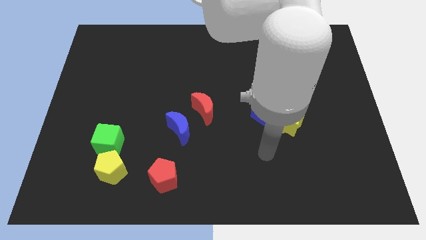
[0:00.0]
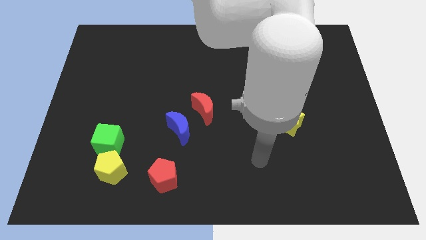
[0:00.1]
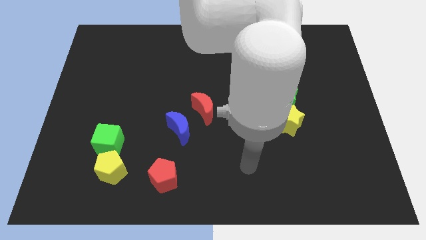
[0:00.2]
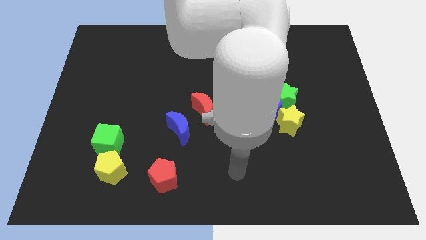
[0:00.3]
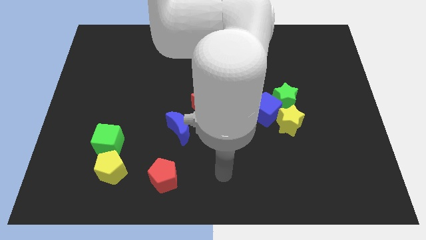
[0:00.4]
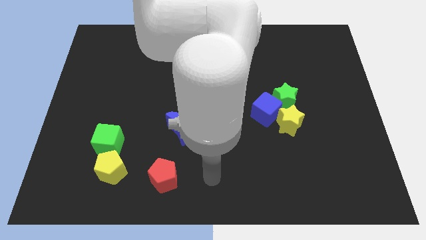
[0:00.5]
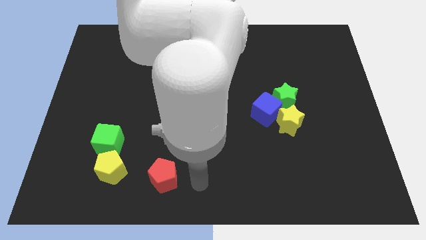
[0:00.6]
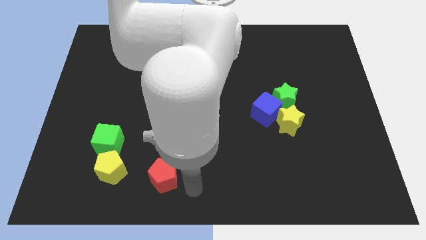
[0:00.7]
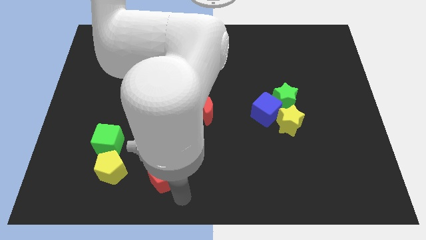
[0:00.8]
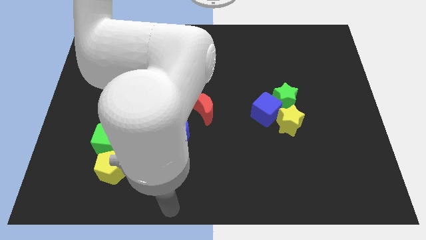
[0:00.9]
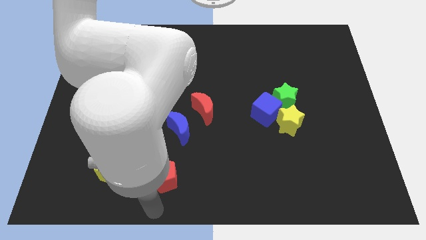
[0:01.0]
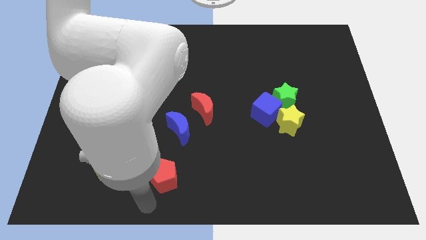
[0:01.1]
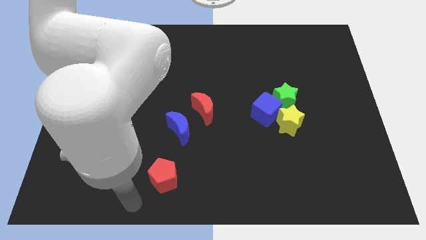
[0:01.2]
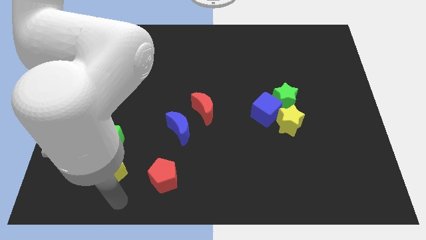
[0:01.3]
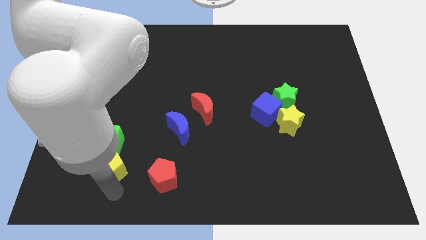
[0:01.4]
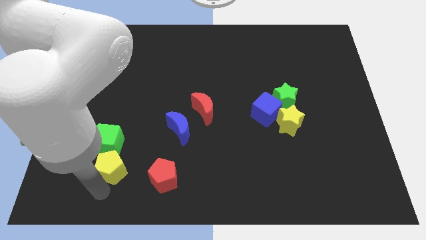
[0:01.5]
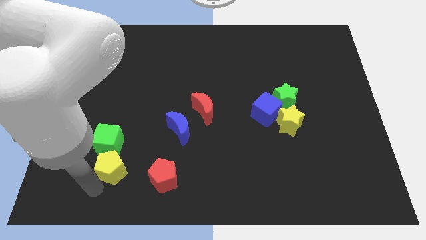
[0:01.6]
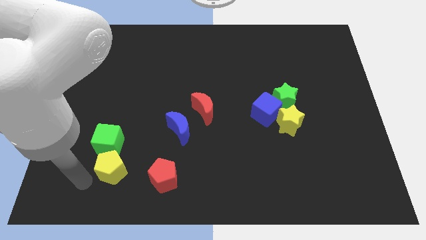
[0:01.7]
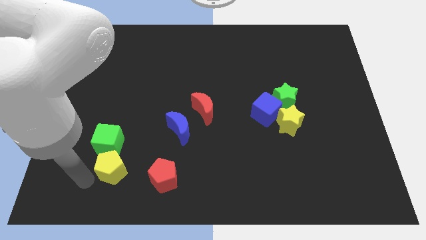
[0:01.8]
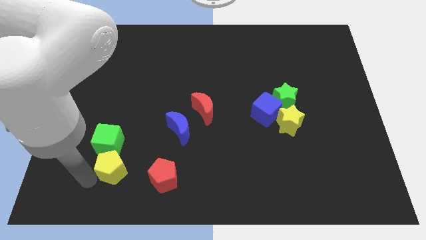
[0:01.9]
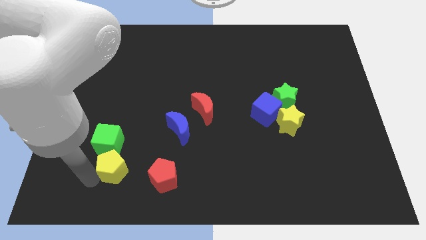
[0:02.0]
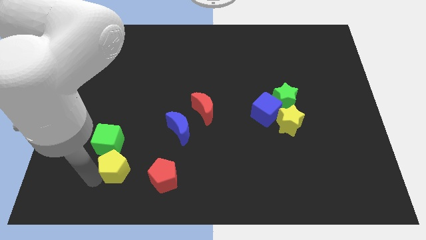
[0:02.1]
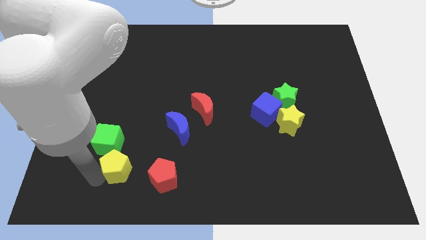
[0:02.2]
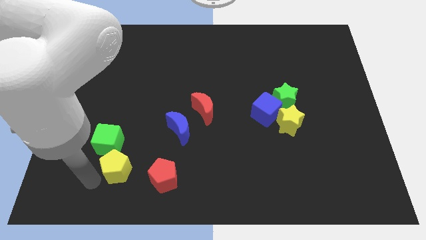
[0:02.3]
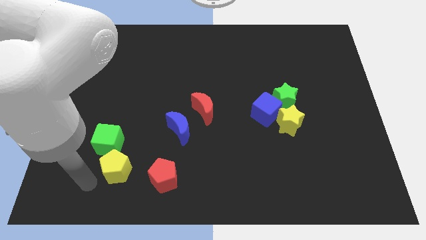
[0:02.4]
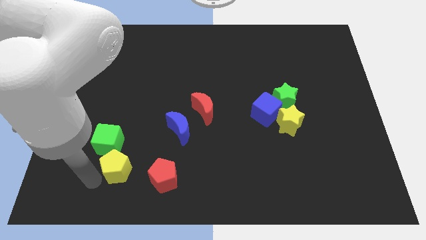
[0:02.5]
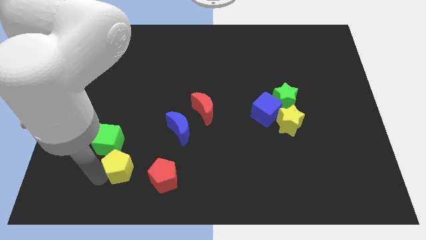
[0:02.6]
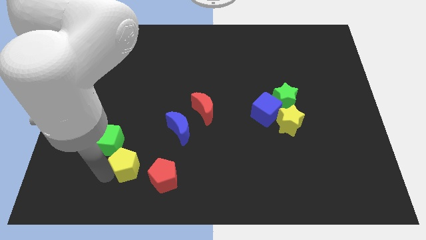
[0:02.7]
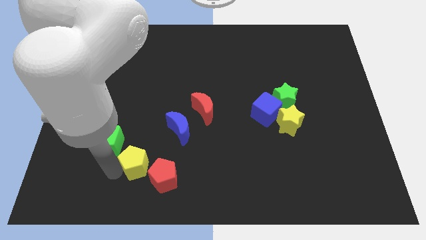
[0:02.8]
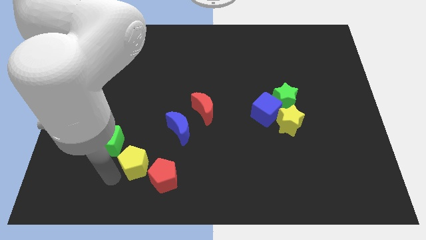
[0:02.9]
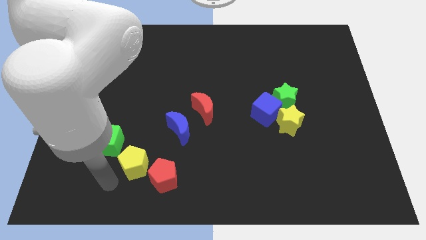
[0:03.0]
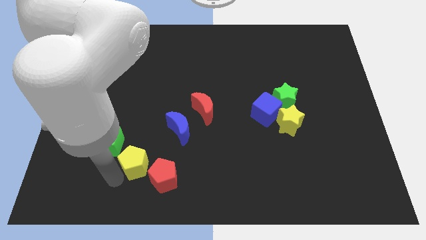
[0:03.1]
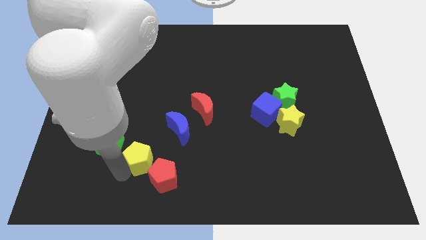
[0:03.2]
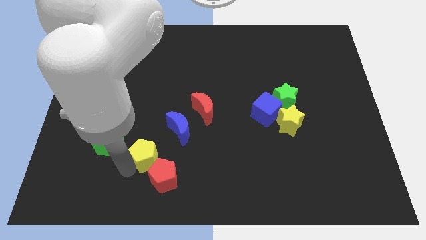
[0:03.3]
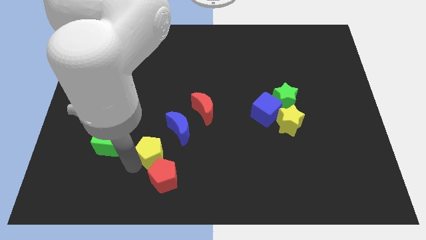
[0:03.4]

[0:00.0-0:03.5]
slightly move the yellow pentagon right

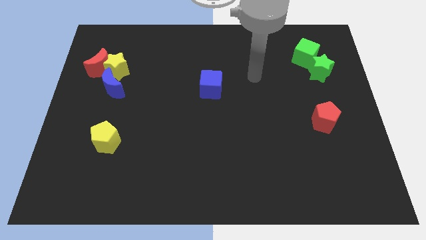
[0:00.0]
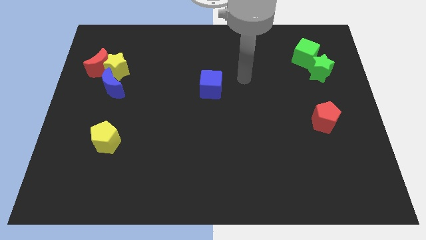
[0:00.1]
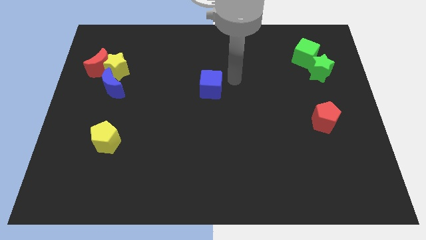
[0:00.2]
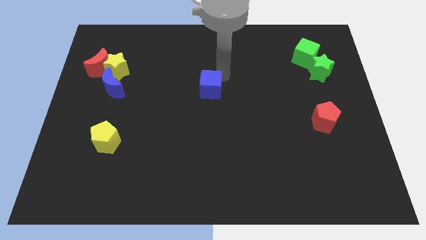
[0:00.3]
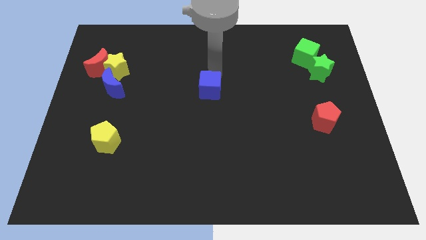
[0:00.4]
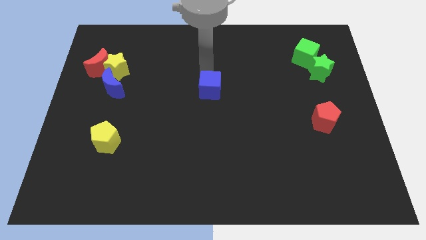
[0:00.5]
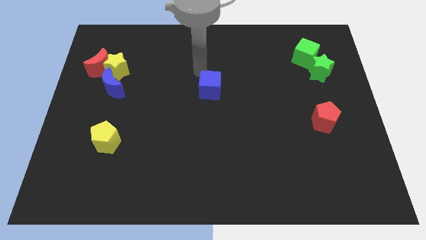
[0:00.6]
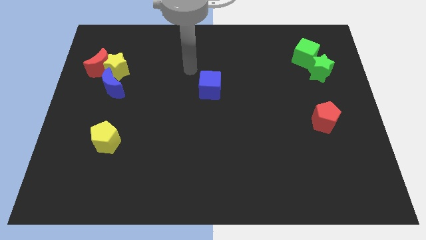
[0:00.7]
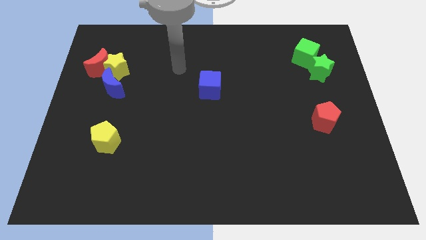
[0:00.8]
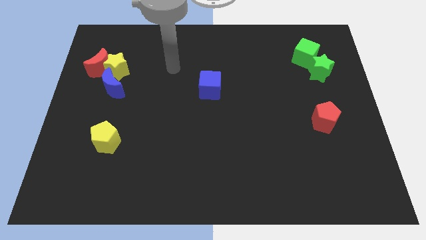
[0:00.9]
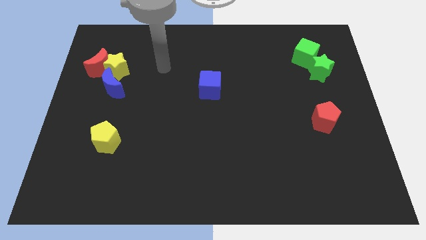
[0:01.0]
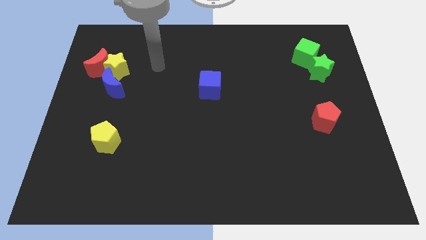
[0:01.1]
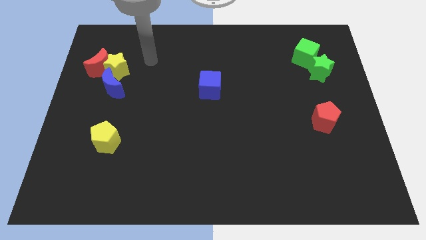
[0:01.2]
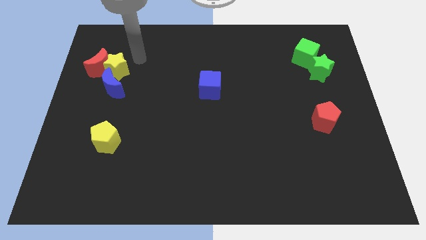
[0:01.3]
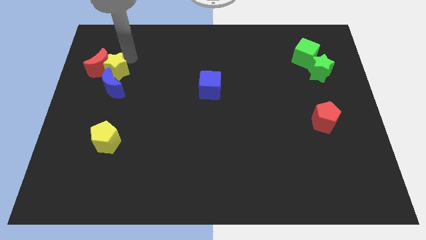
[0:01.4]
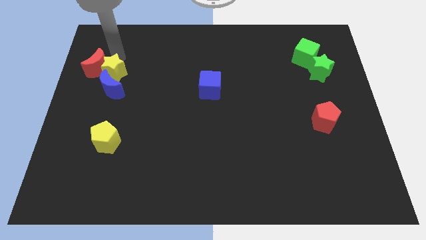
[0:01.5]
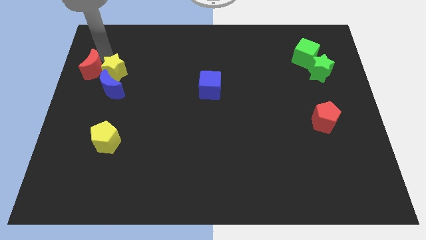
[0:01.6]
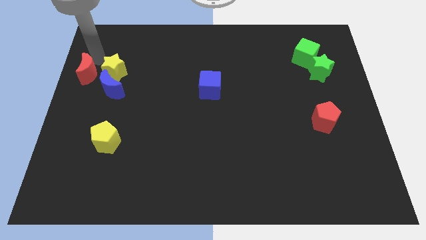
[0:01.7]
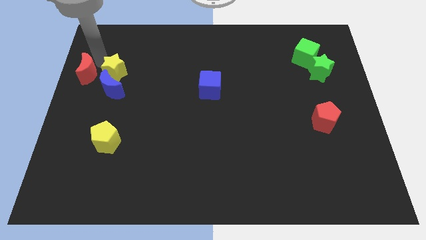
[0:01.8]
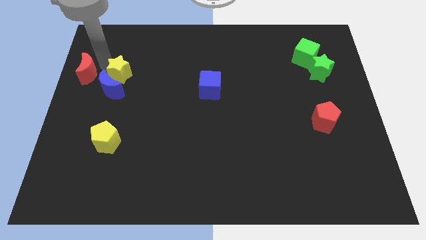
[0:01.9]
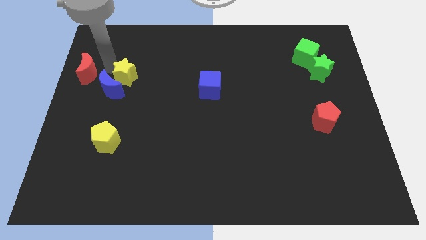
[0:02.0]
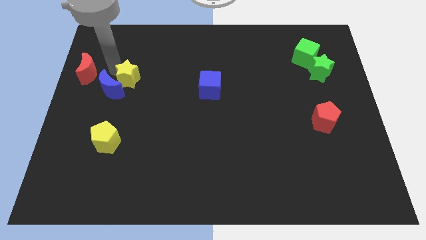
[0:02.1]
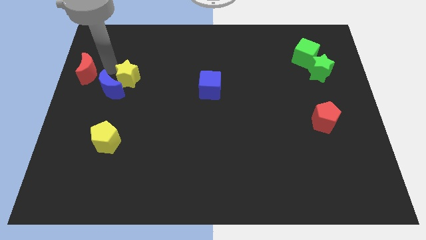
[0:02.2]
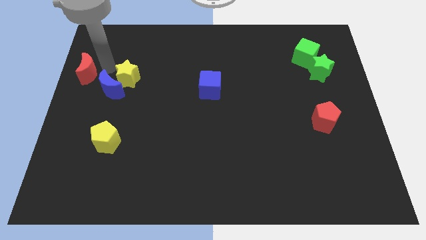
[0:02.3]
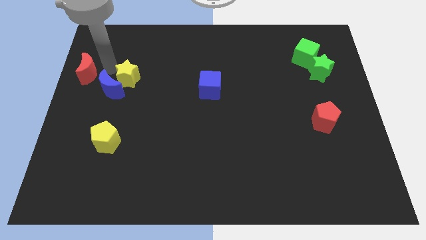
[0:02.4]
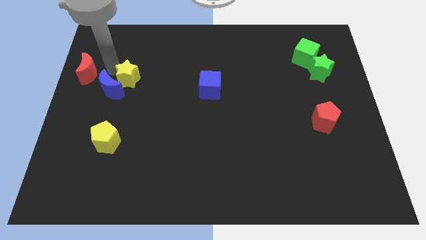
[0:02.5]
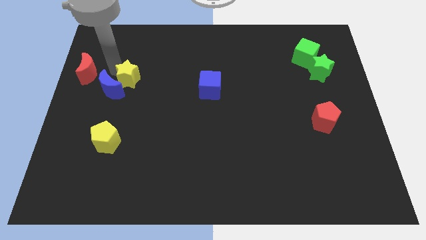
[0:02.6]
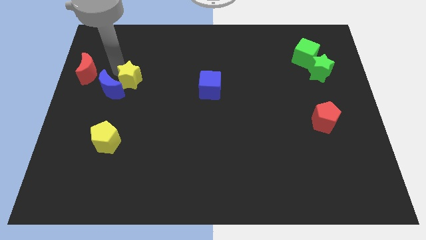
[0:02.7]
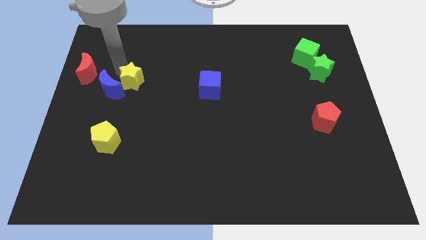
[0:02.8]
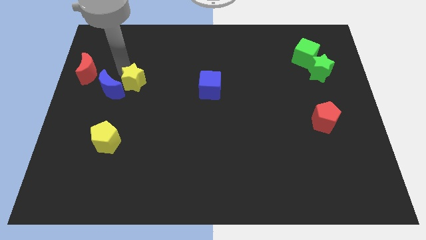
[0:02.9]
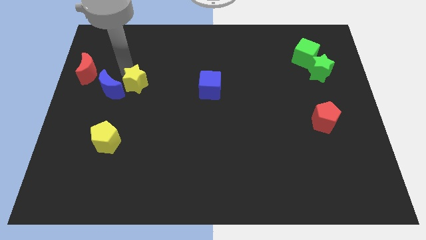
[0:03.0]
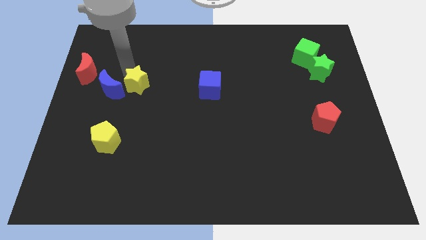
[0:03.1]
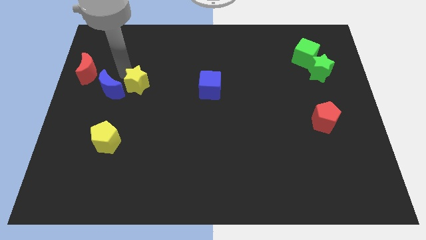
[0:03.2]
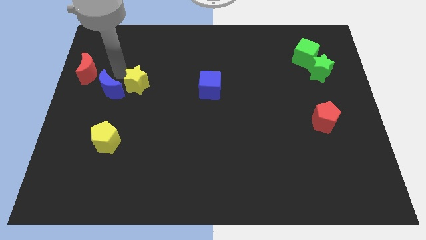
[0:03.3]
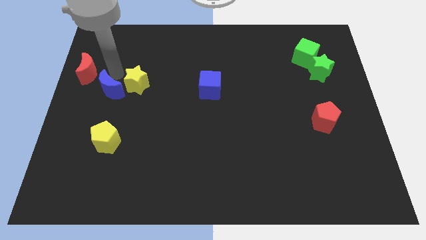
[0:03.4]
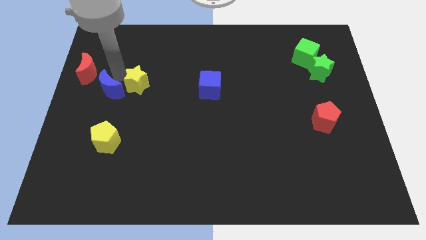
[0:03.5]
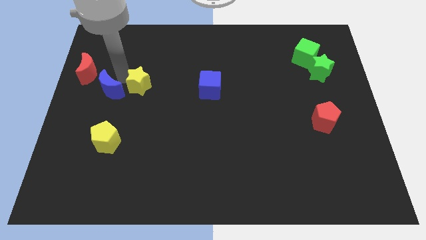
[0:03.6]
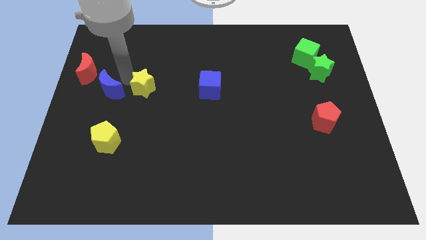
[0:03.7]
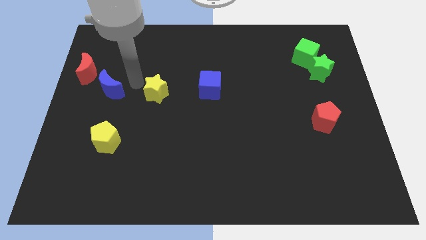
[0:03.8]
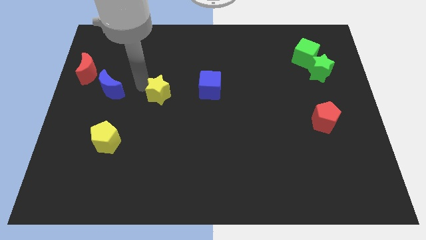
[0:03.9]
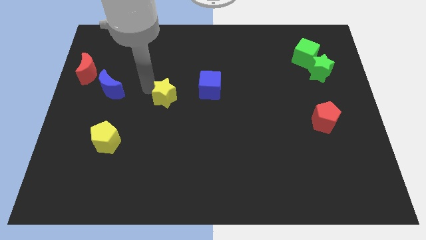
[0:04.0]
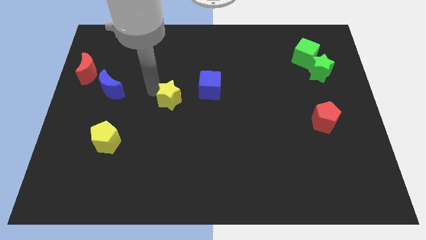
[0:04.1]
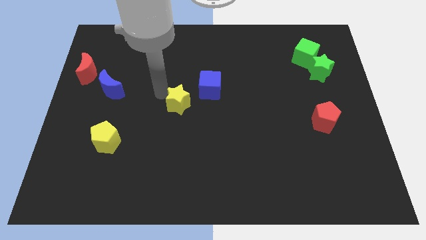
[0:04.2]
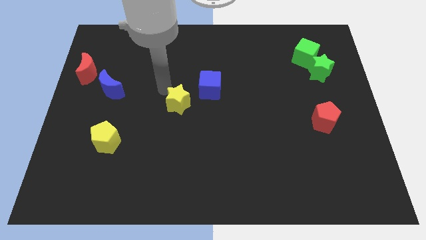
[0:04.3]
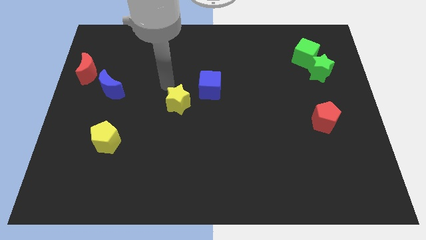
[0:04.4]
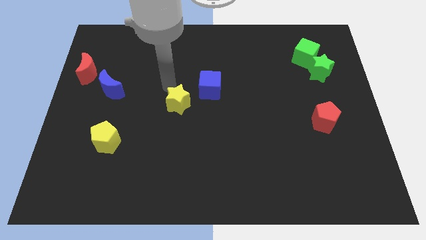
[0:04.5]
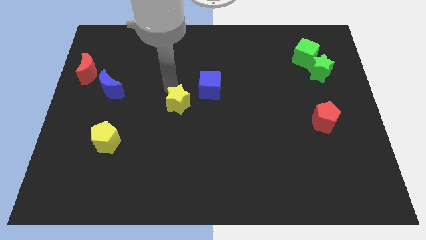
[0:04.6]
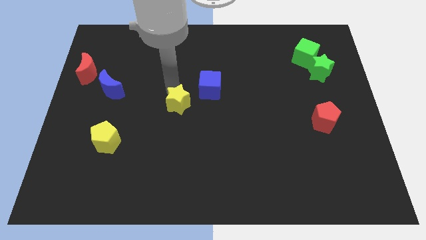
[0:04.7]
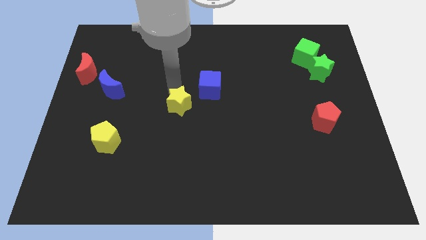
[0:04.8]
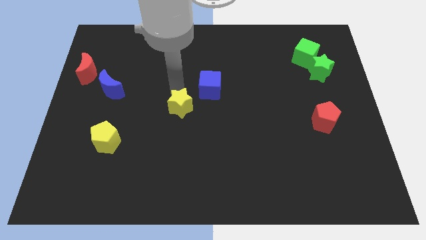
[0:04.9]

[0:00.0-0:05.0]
slide the yellow star downwards and to the right diagonally
